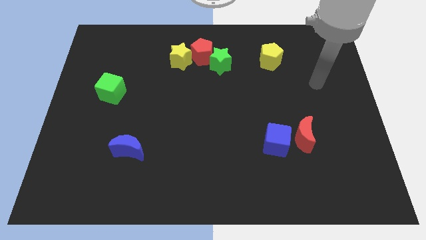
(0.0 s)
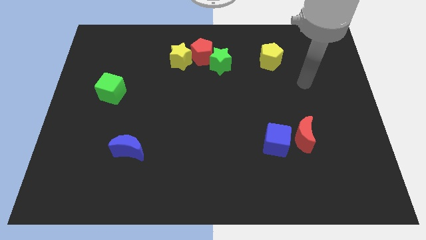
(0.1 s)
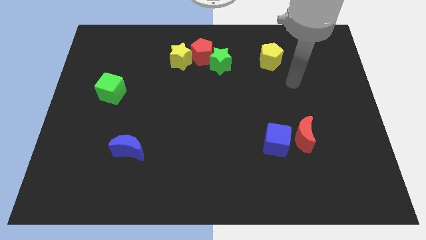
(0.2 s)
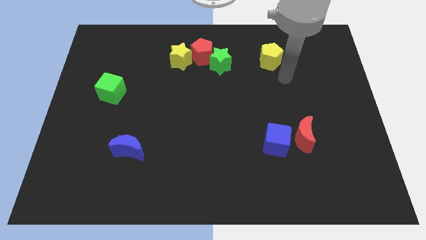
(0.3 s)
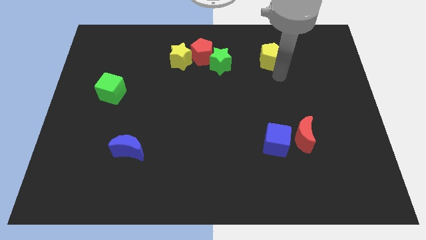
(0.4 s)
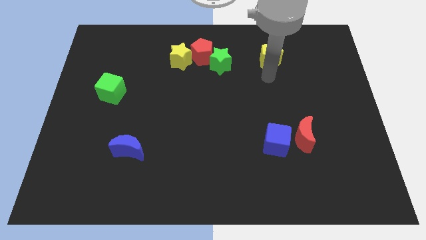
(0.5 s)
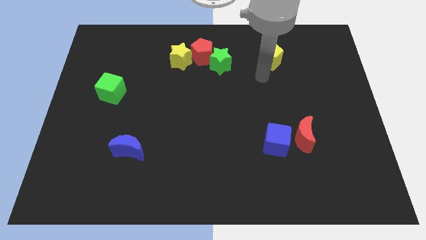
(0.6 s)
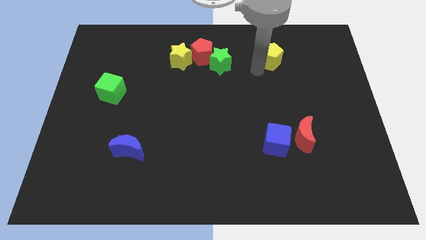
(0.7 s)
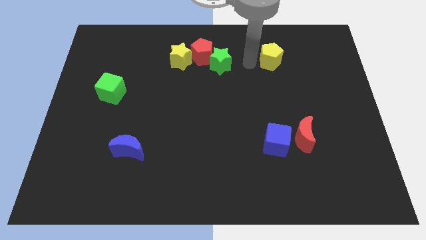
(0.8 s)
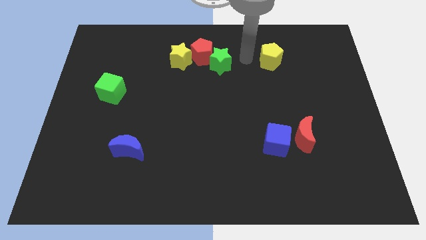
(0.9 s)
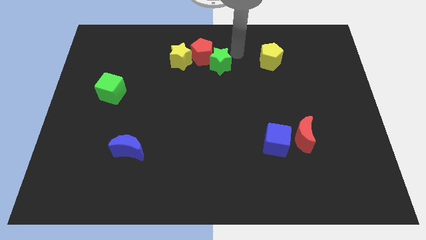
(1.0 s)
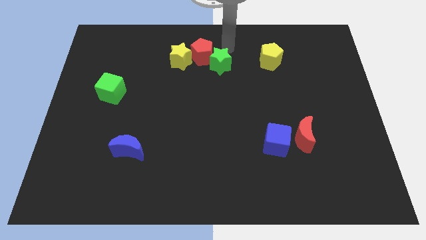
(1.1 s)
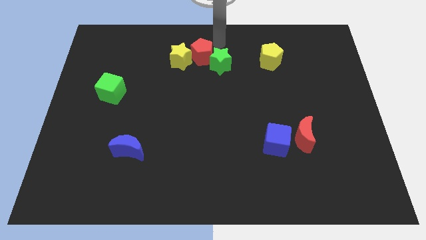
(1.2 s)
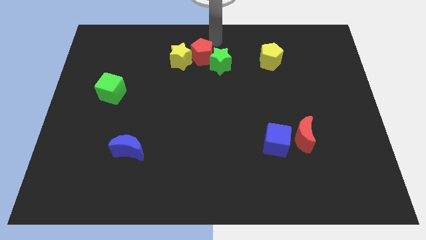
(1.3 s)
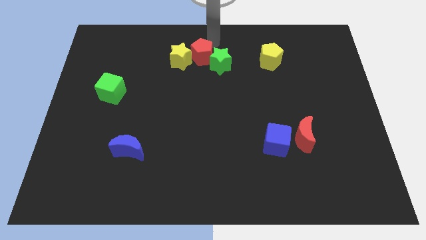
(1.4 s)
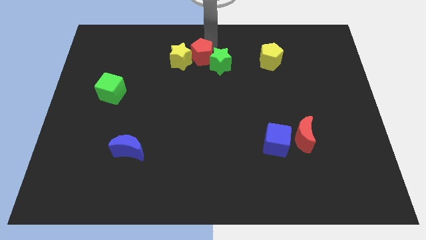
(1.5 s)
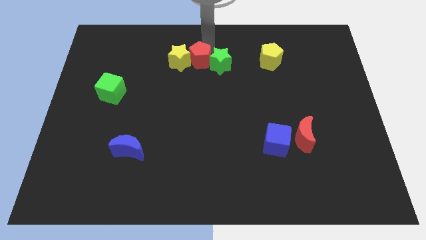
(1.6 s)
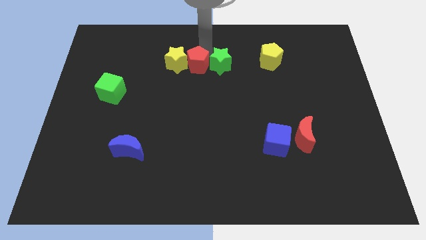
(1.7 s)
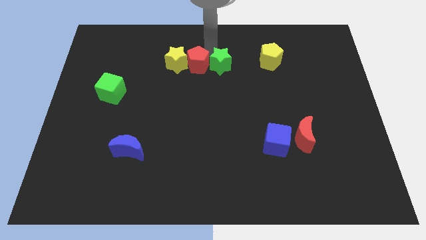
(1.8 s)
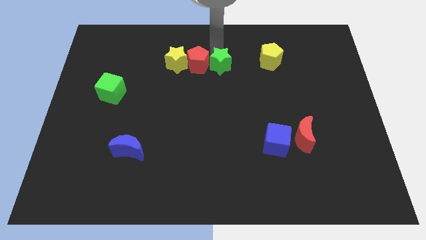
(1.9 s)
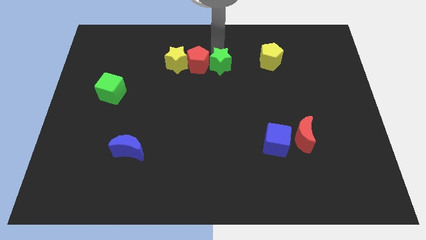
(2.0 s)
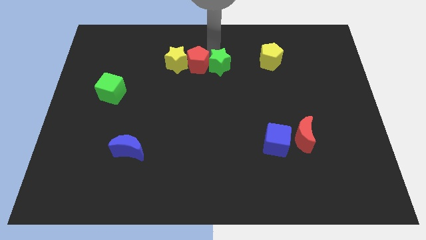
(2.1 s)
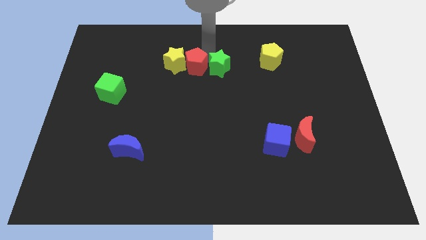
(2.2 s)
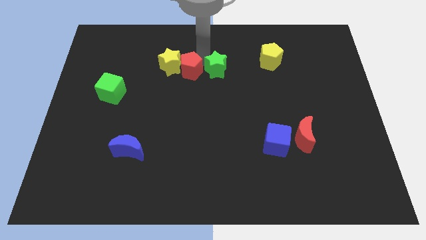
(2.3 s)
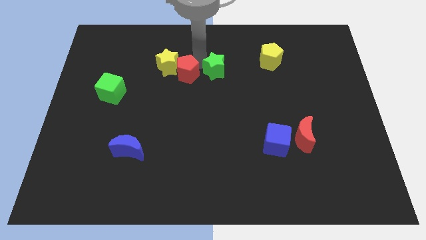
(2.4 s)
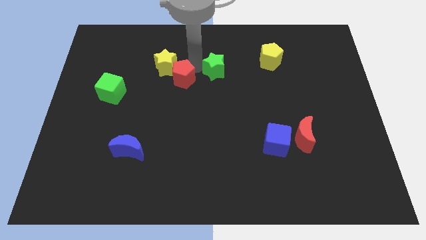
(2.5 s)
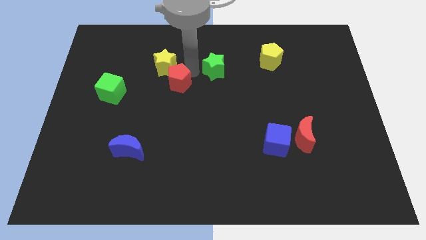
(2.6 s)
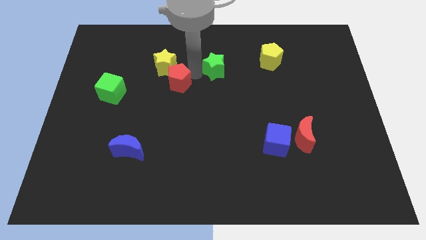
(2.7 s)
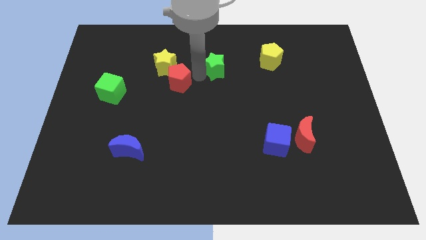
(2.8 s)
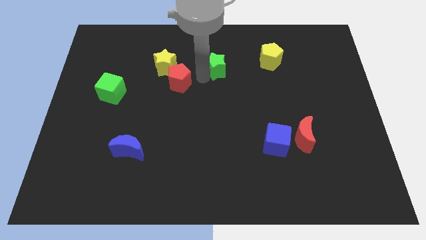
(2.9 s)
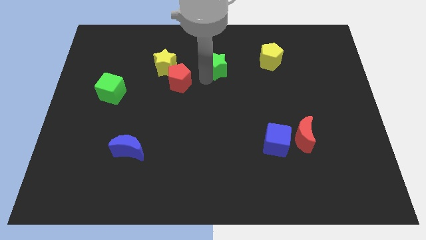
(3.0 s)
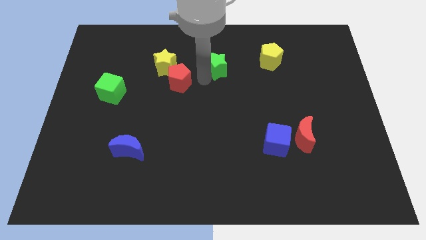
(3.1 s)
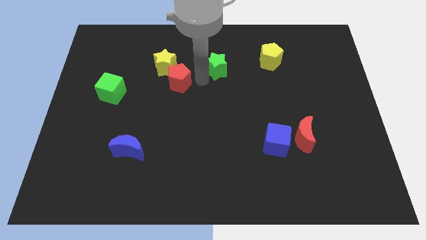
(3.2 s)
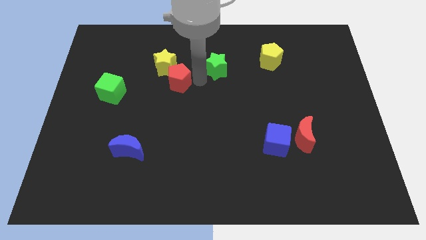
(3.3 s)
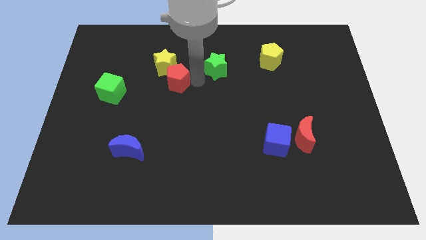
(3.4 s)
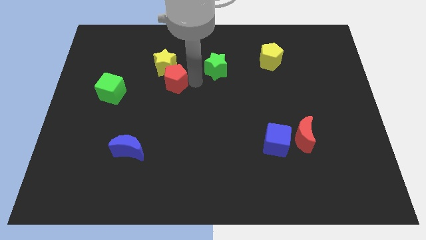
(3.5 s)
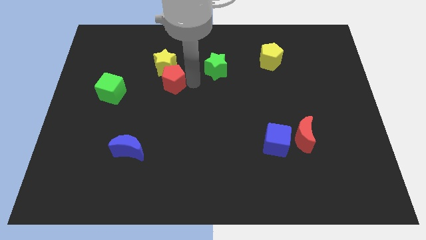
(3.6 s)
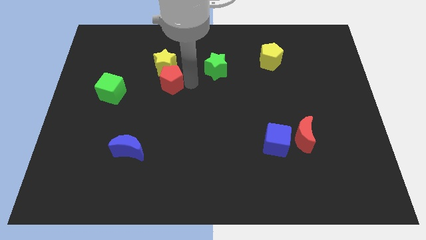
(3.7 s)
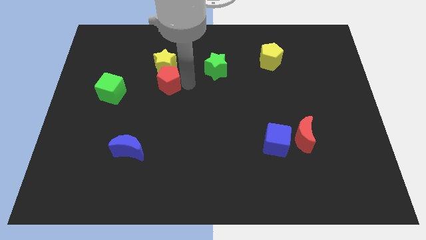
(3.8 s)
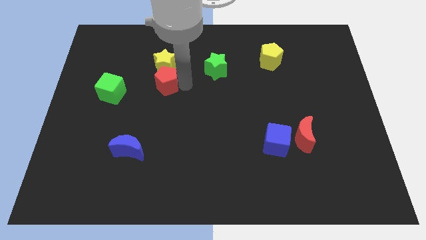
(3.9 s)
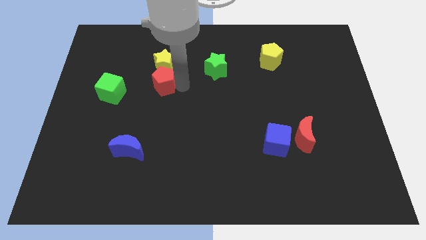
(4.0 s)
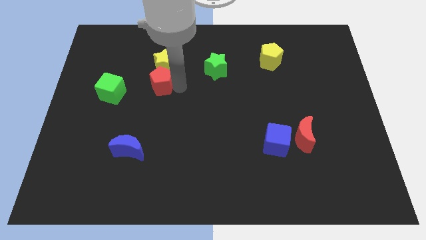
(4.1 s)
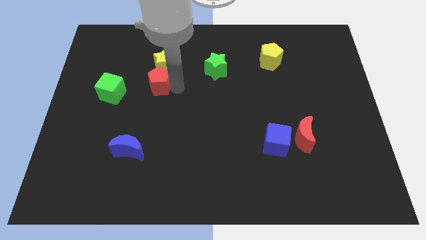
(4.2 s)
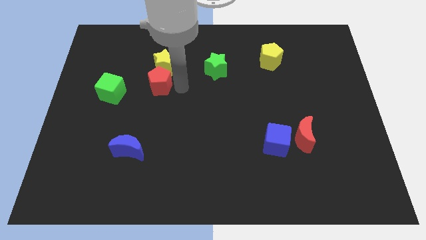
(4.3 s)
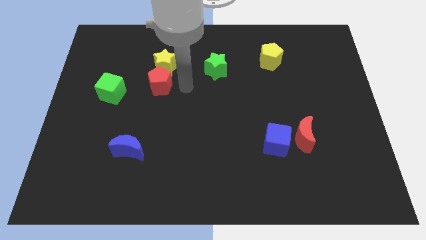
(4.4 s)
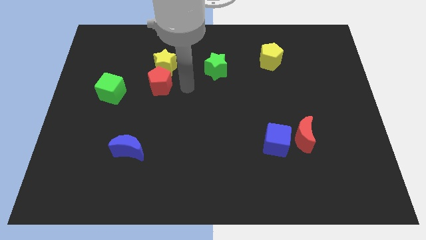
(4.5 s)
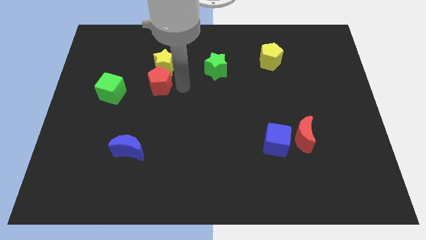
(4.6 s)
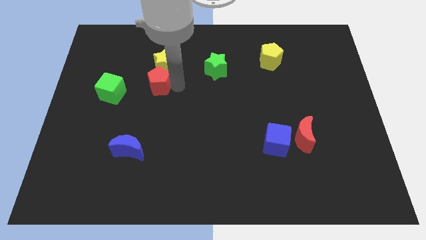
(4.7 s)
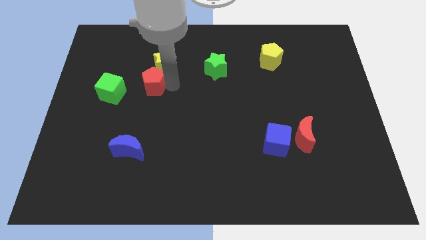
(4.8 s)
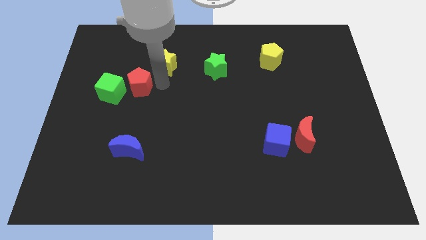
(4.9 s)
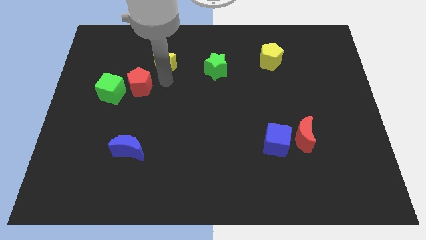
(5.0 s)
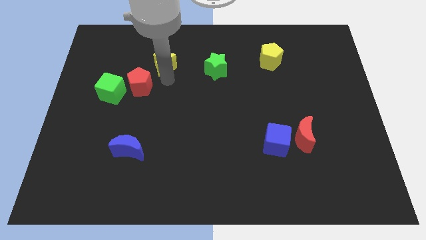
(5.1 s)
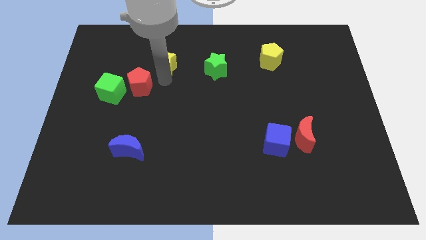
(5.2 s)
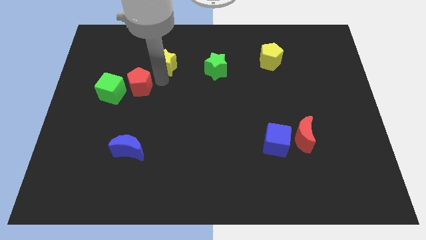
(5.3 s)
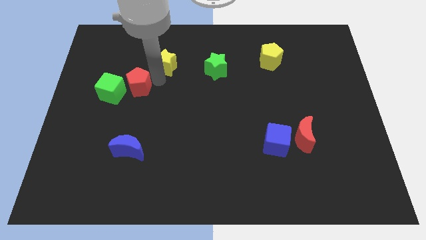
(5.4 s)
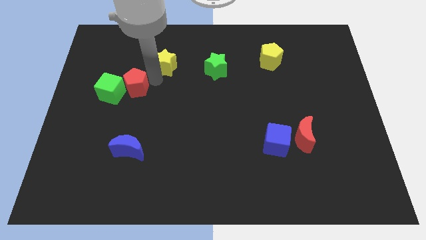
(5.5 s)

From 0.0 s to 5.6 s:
put the red pentagon close to the green cube

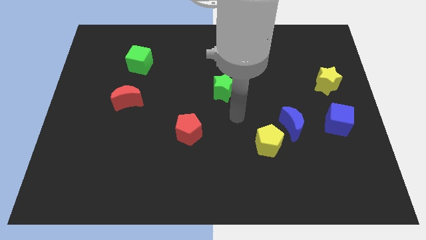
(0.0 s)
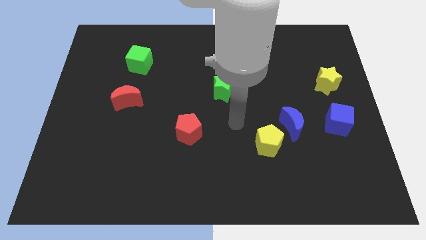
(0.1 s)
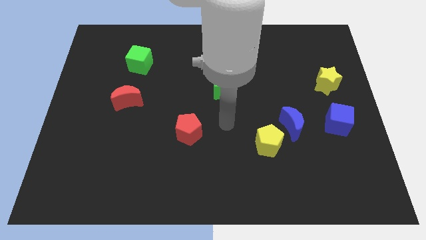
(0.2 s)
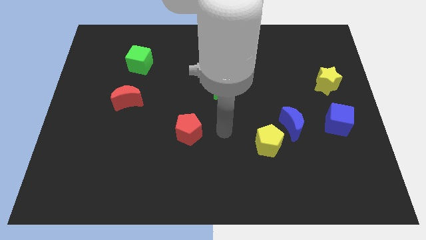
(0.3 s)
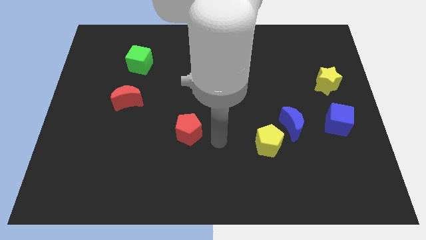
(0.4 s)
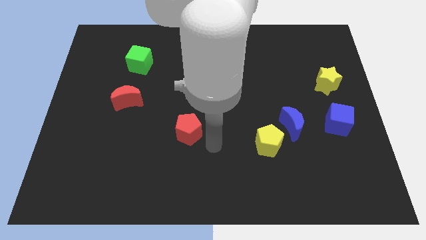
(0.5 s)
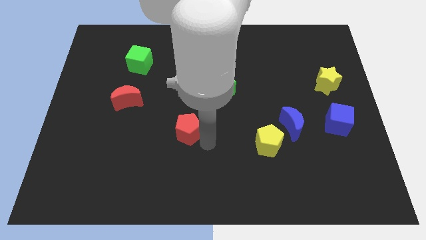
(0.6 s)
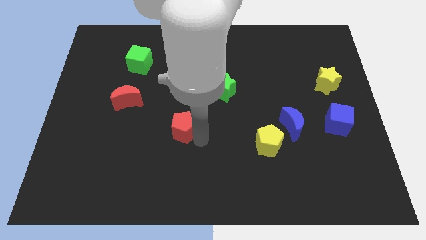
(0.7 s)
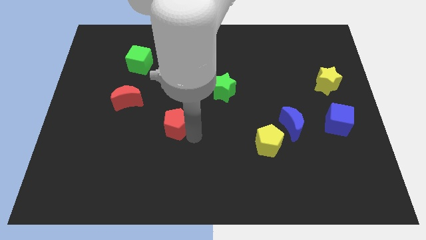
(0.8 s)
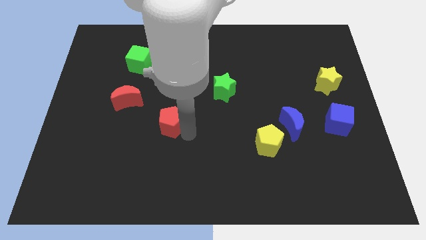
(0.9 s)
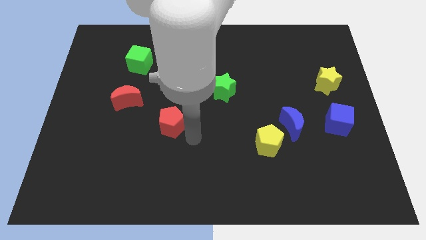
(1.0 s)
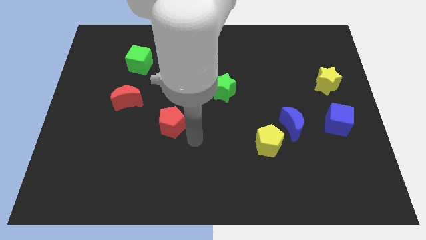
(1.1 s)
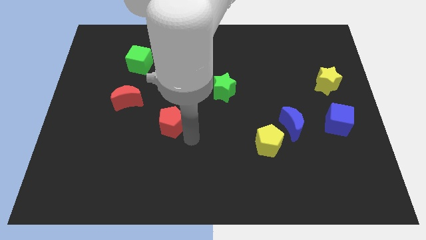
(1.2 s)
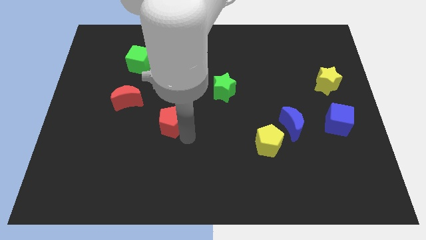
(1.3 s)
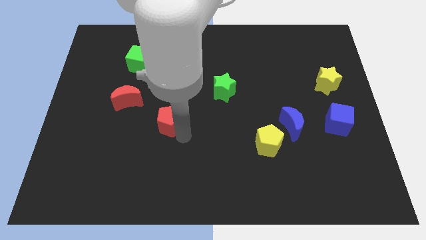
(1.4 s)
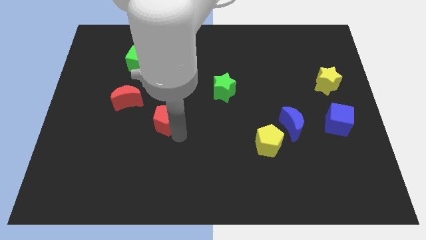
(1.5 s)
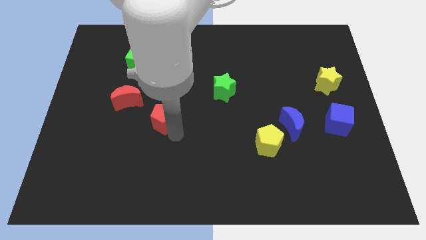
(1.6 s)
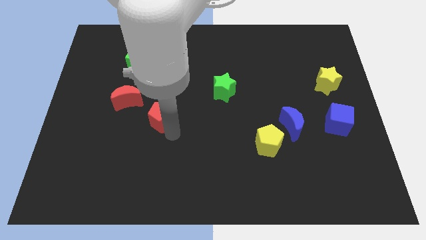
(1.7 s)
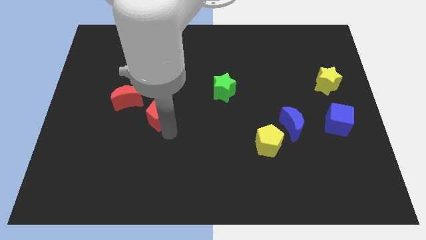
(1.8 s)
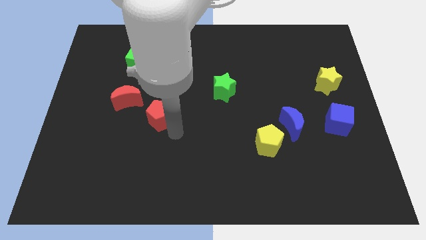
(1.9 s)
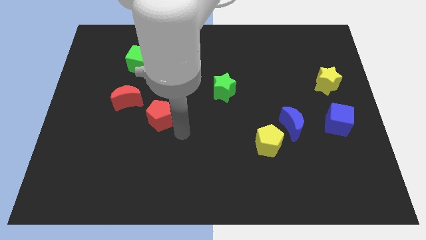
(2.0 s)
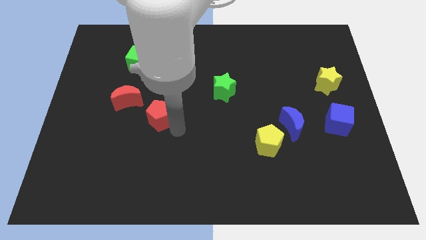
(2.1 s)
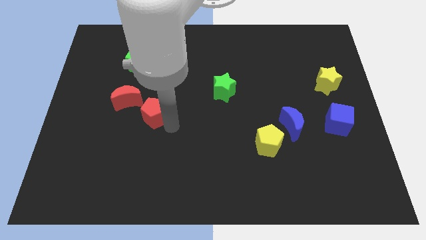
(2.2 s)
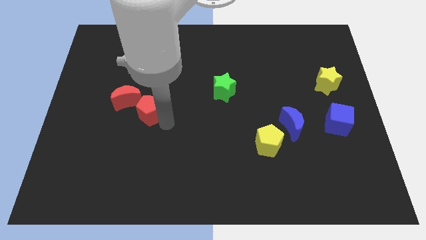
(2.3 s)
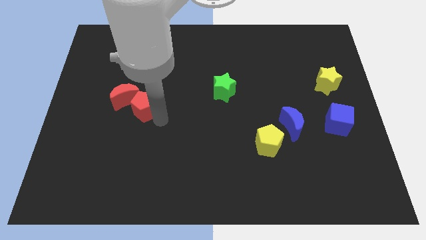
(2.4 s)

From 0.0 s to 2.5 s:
move the red pentagon close to the red moon
